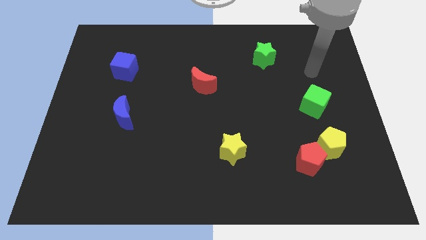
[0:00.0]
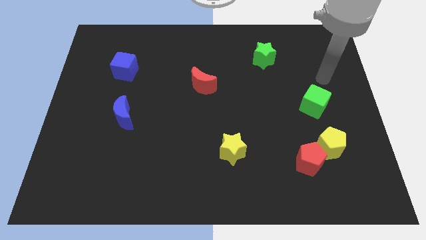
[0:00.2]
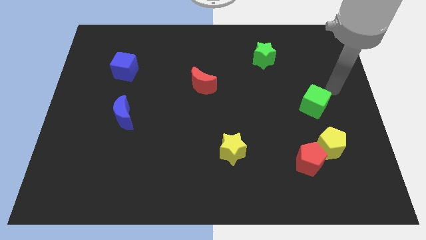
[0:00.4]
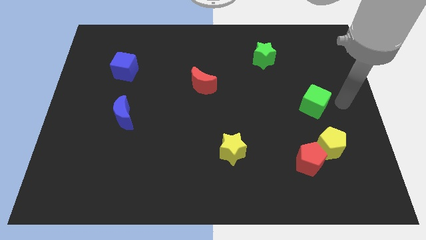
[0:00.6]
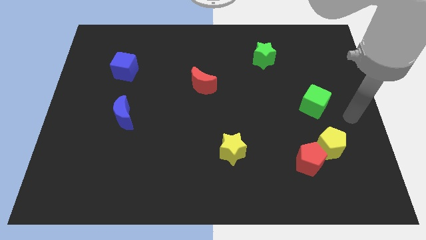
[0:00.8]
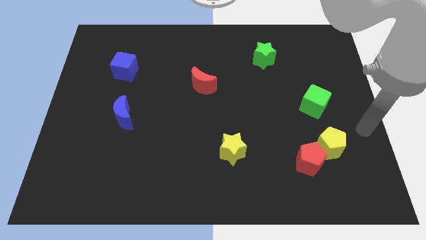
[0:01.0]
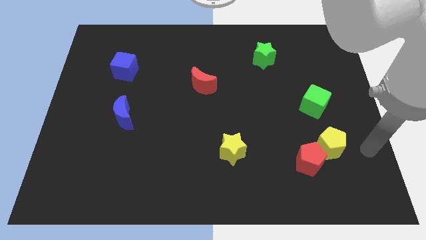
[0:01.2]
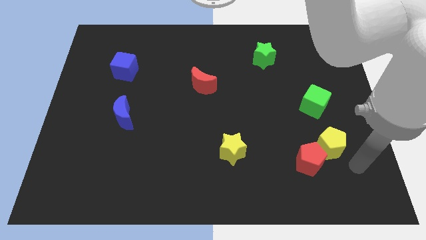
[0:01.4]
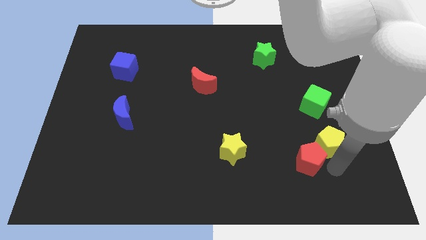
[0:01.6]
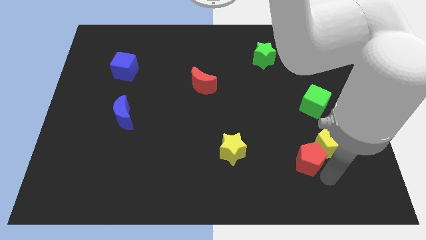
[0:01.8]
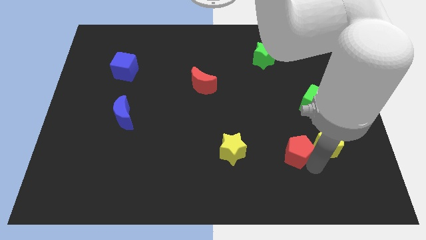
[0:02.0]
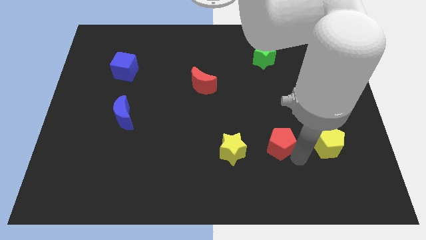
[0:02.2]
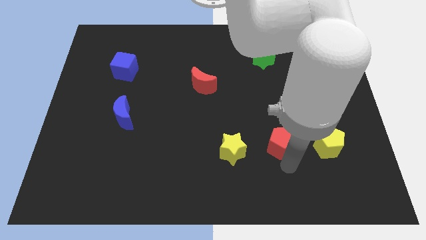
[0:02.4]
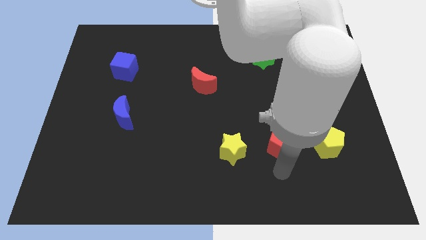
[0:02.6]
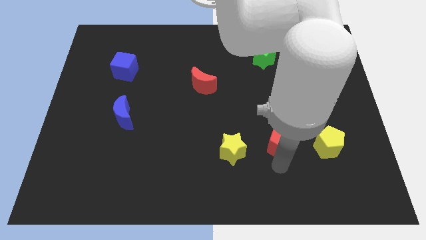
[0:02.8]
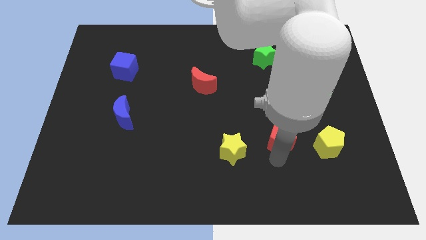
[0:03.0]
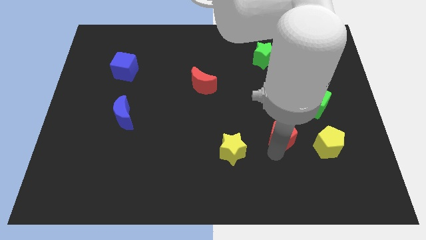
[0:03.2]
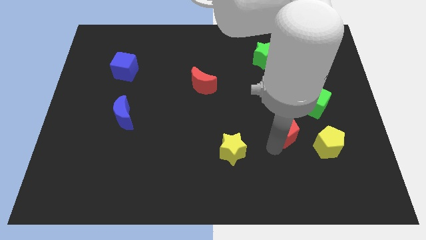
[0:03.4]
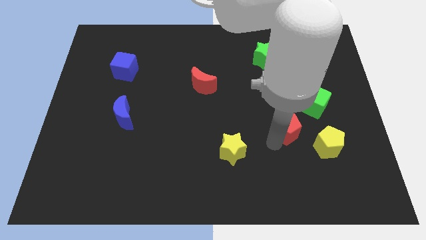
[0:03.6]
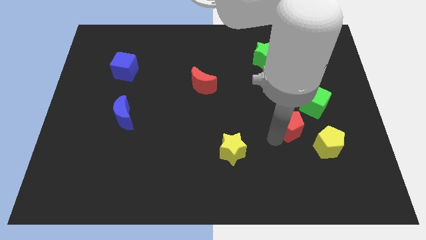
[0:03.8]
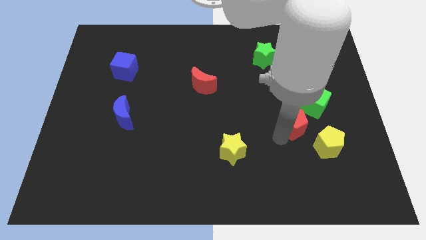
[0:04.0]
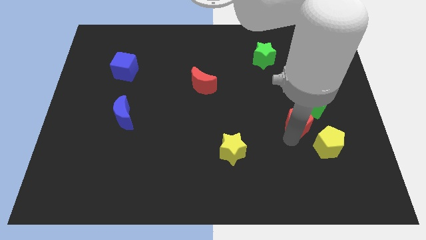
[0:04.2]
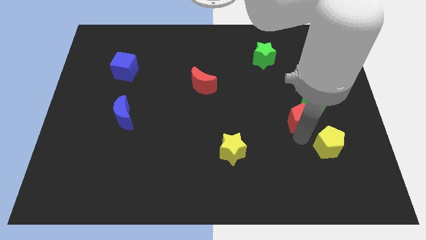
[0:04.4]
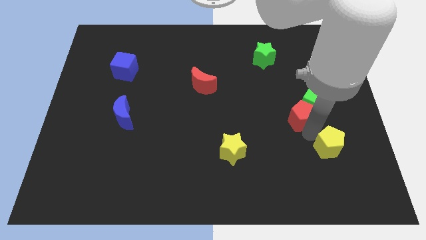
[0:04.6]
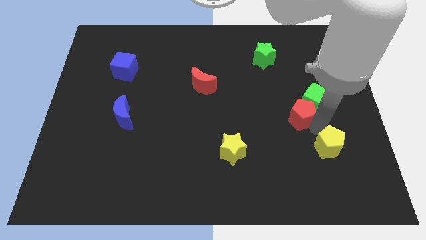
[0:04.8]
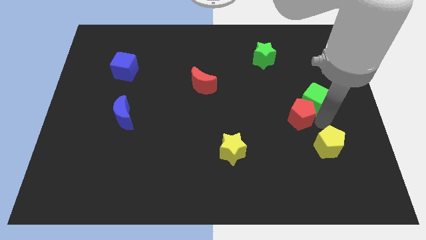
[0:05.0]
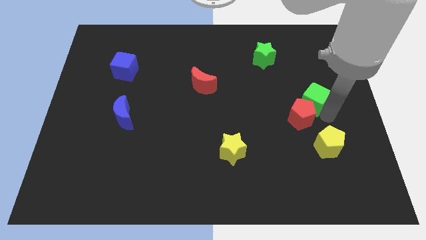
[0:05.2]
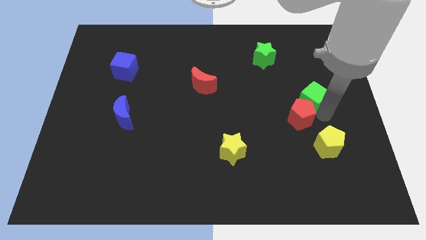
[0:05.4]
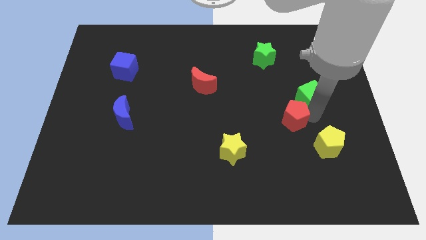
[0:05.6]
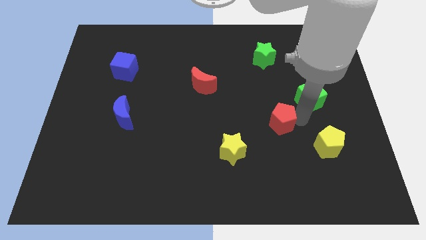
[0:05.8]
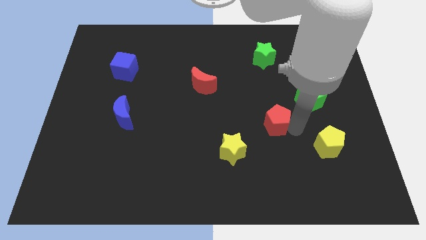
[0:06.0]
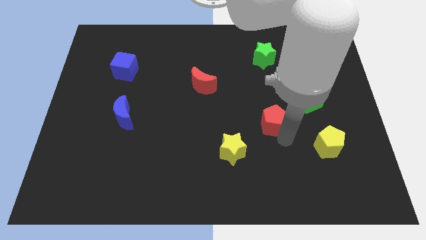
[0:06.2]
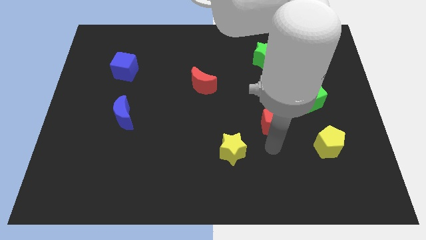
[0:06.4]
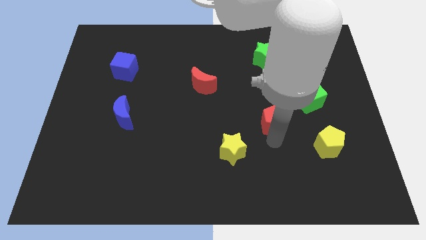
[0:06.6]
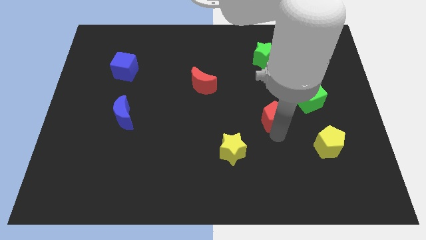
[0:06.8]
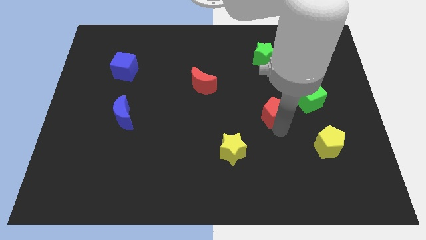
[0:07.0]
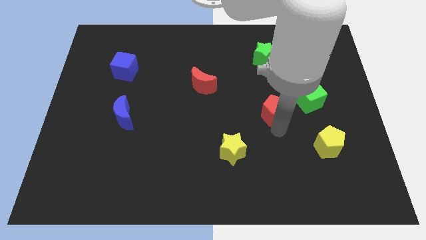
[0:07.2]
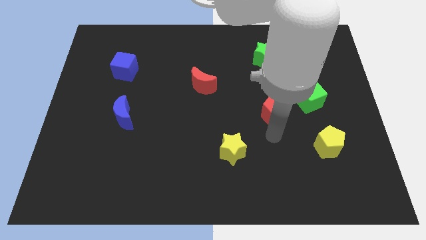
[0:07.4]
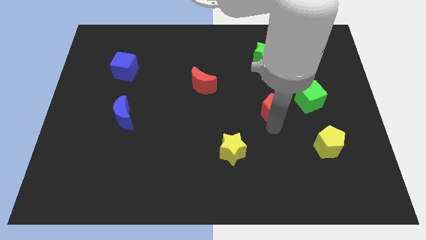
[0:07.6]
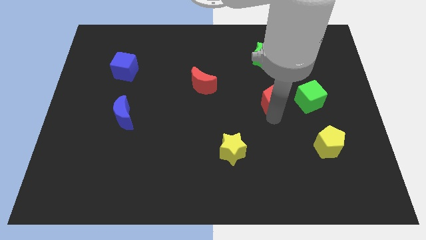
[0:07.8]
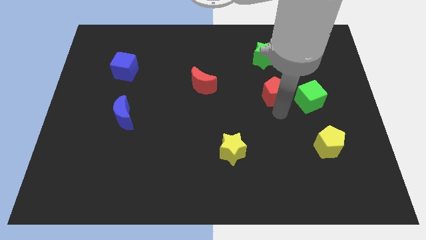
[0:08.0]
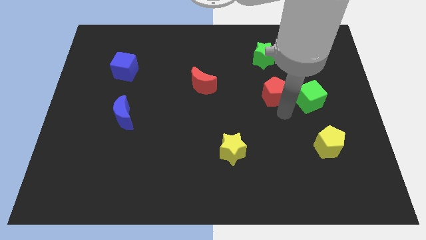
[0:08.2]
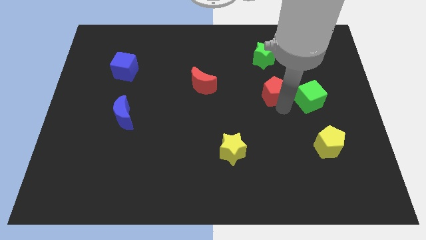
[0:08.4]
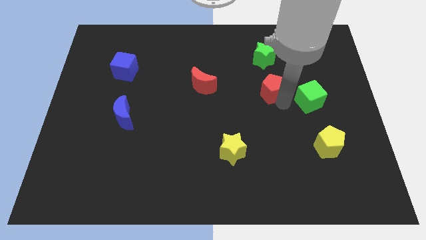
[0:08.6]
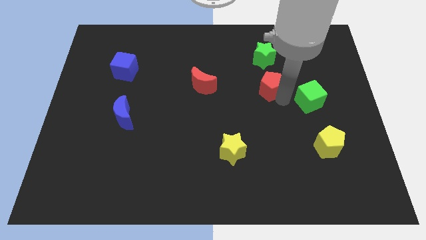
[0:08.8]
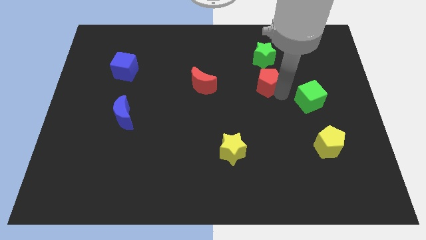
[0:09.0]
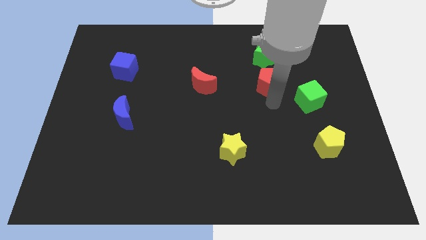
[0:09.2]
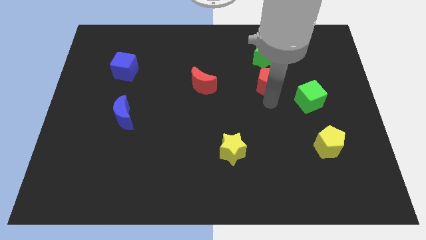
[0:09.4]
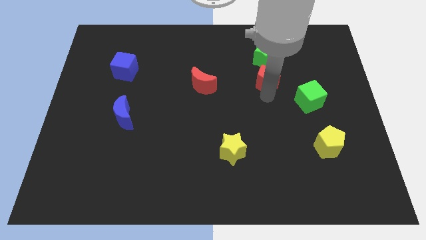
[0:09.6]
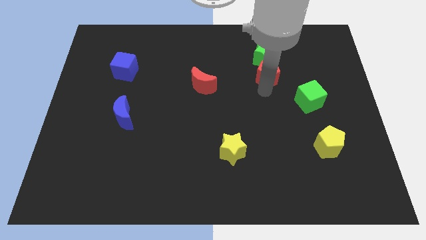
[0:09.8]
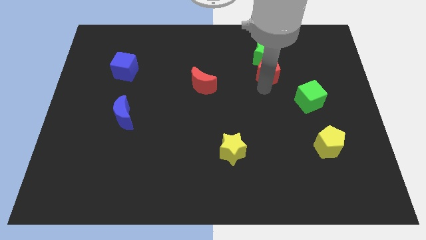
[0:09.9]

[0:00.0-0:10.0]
move the red pentagon to the green star

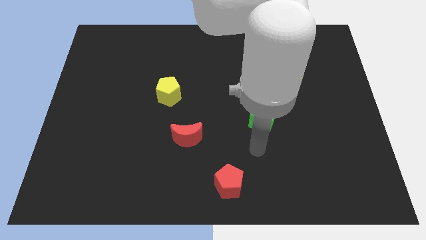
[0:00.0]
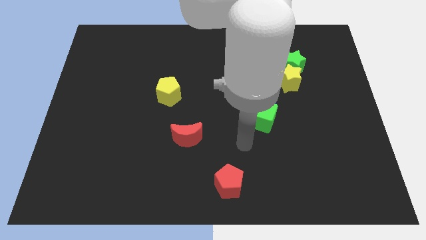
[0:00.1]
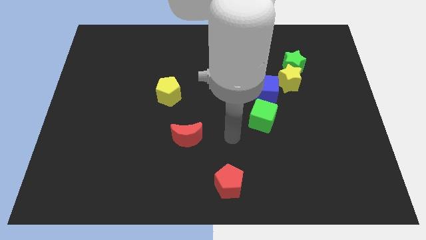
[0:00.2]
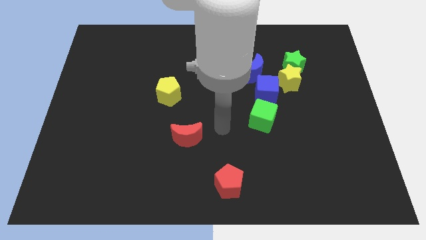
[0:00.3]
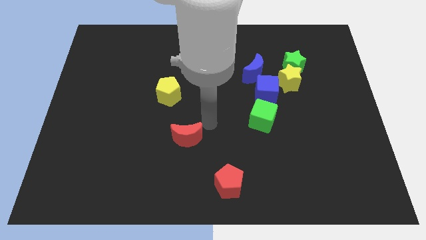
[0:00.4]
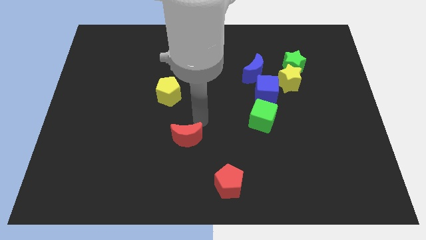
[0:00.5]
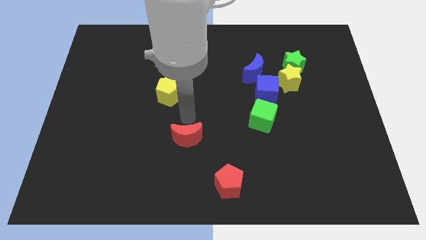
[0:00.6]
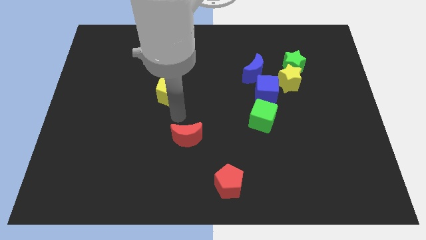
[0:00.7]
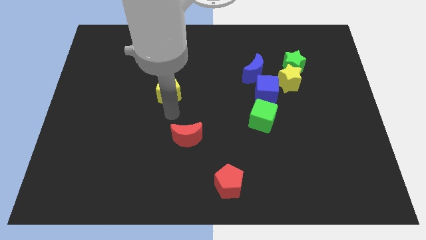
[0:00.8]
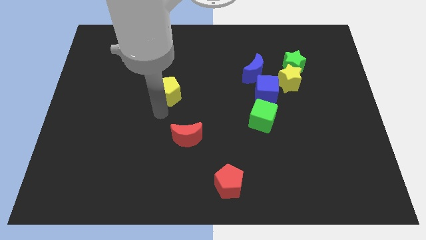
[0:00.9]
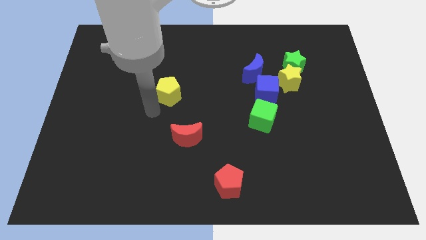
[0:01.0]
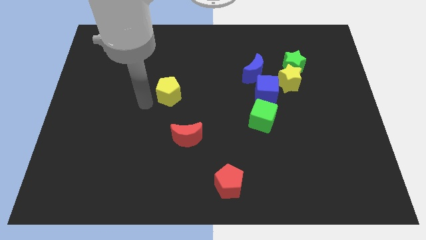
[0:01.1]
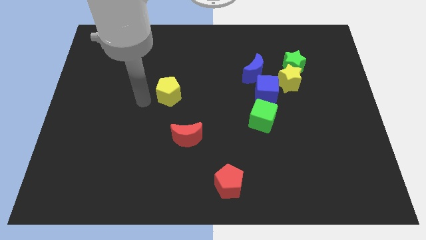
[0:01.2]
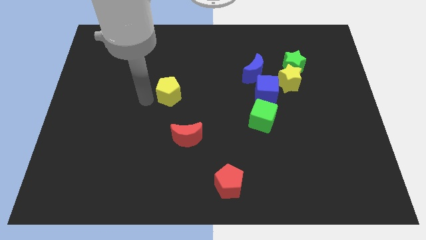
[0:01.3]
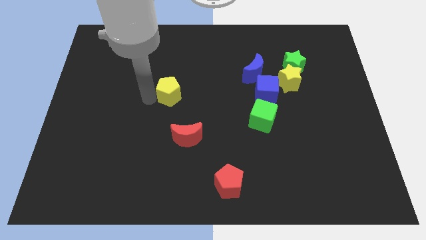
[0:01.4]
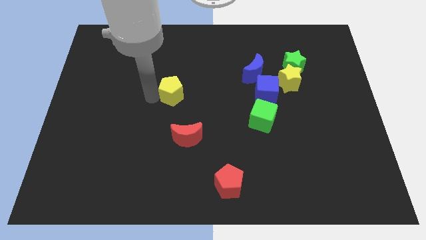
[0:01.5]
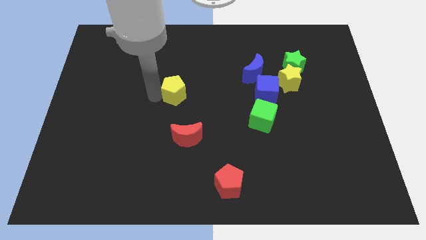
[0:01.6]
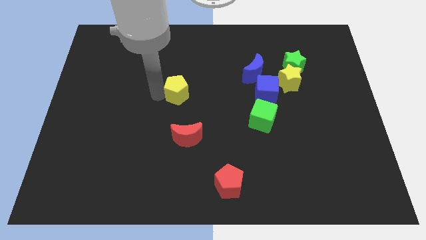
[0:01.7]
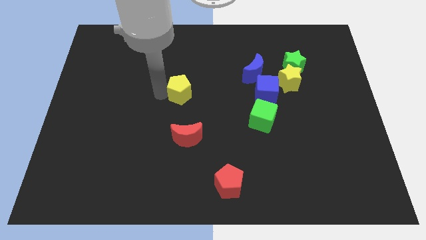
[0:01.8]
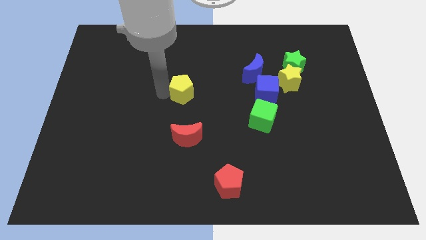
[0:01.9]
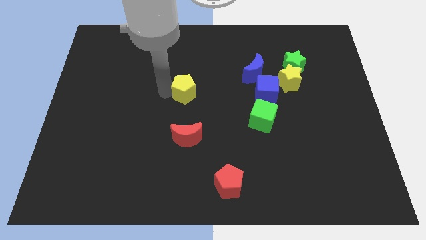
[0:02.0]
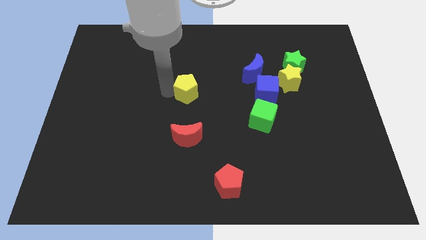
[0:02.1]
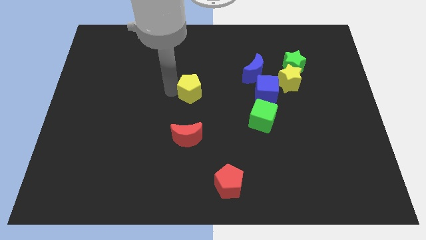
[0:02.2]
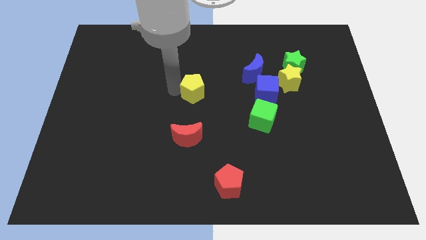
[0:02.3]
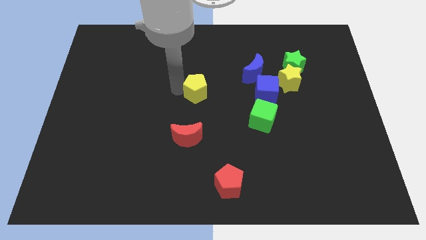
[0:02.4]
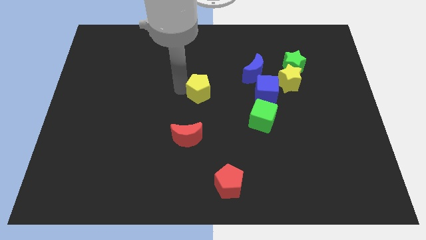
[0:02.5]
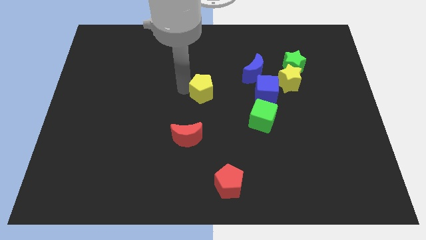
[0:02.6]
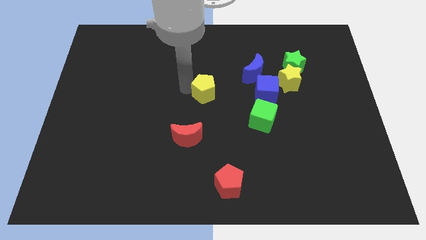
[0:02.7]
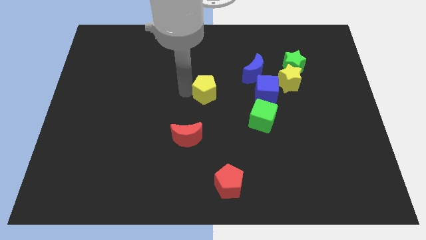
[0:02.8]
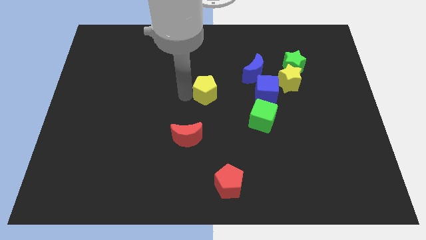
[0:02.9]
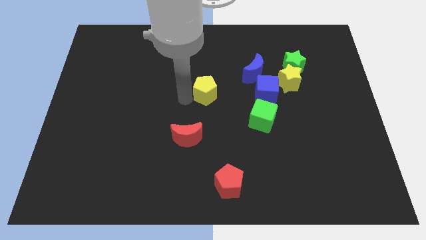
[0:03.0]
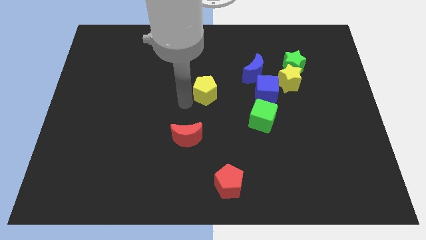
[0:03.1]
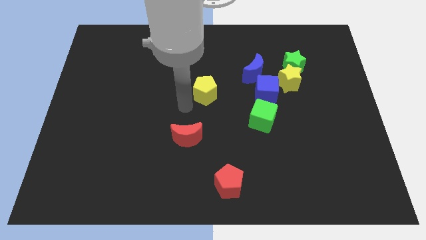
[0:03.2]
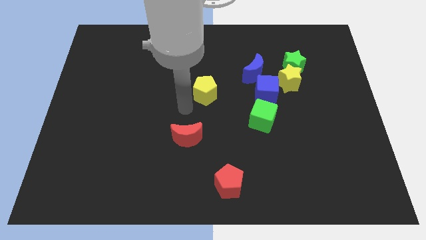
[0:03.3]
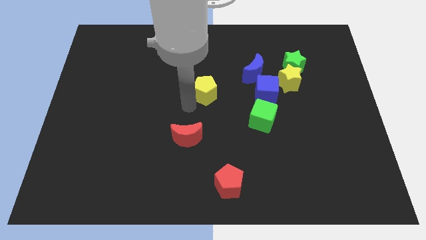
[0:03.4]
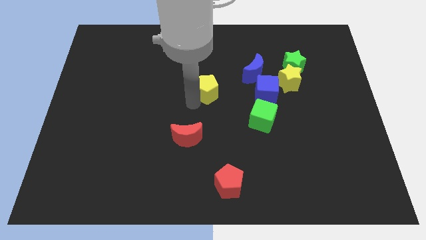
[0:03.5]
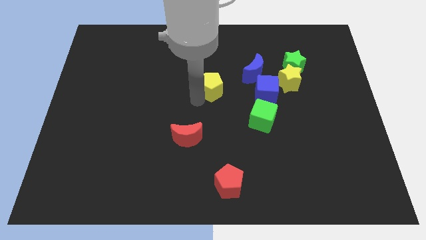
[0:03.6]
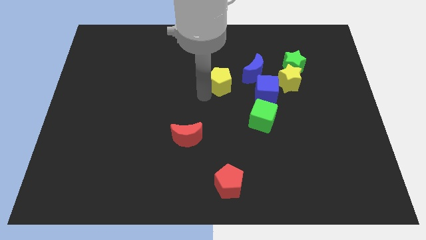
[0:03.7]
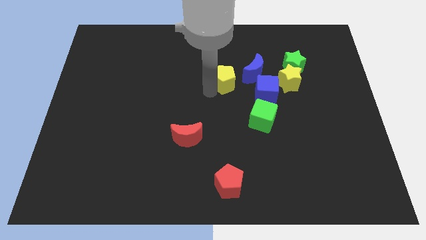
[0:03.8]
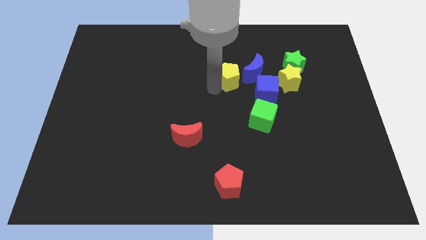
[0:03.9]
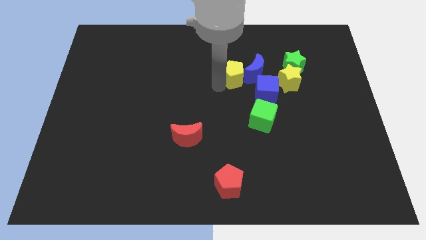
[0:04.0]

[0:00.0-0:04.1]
slide the yellow pentagon close to the blue moon
